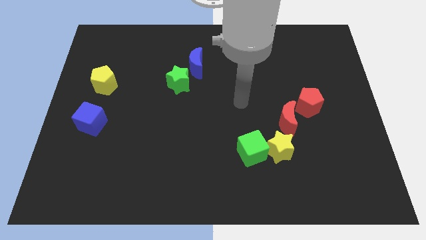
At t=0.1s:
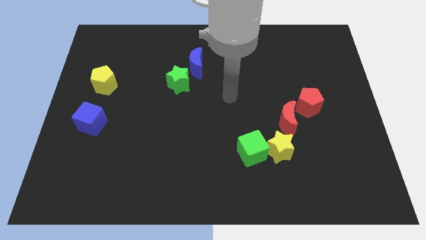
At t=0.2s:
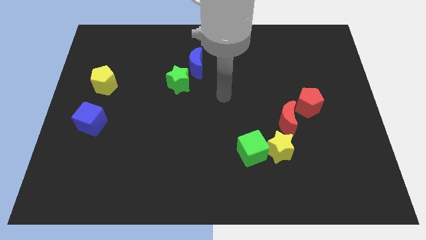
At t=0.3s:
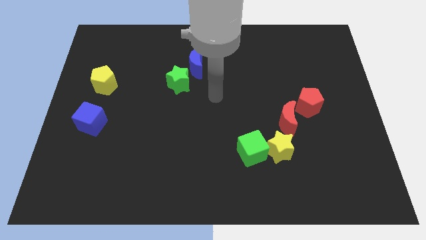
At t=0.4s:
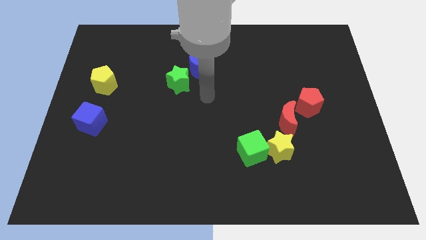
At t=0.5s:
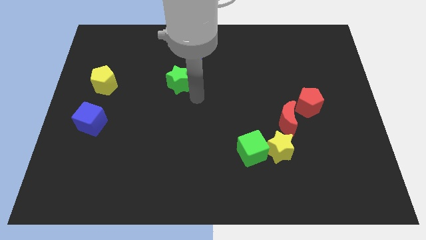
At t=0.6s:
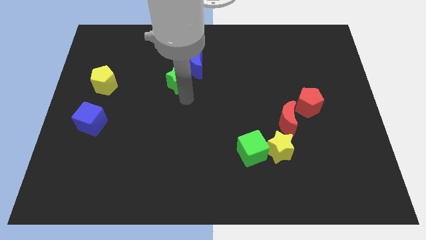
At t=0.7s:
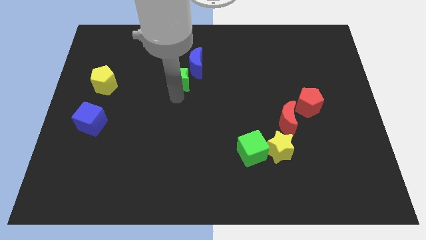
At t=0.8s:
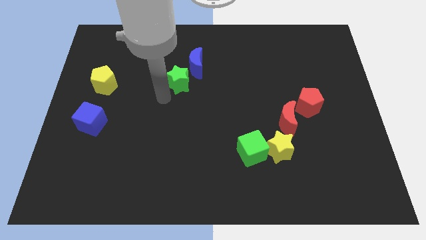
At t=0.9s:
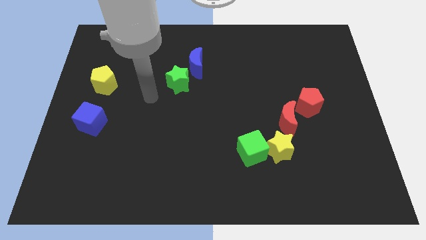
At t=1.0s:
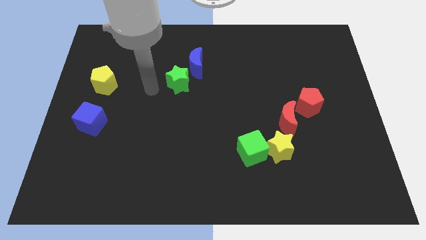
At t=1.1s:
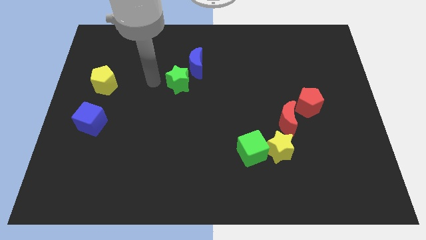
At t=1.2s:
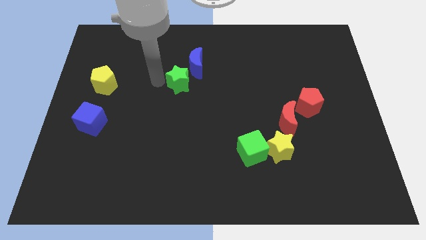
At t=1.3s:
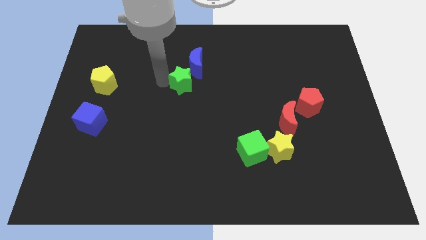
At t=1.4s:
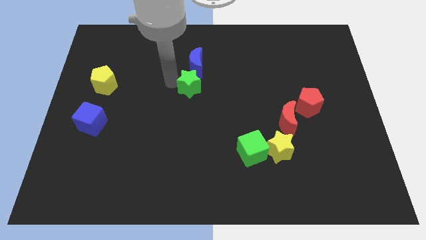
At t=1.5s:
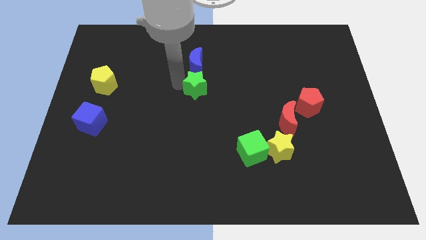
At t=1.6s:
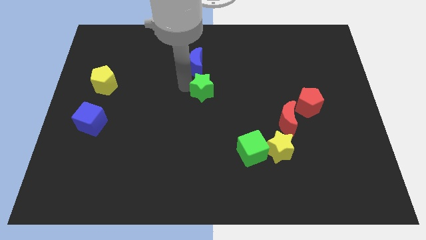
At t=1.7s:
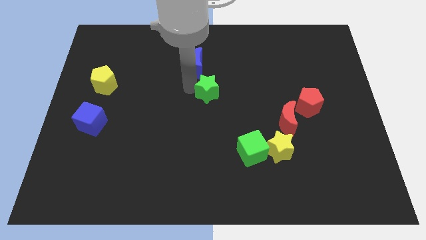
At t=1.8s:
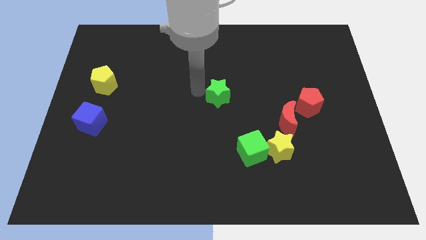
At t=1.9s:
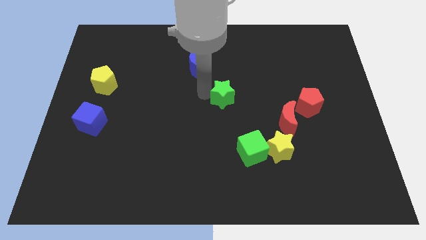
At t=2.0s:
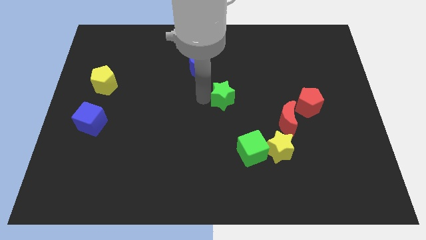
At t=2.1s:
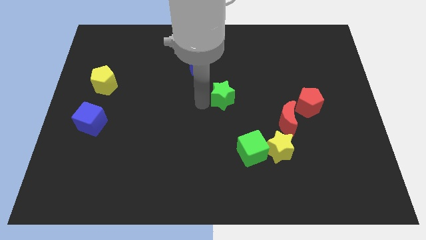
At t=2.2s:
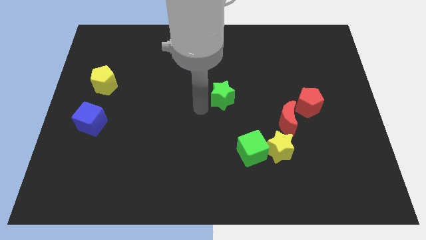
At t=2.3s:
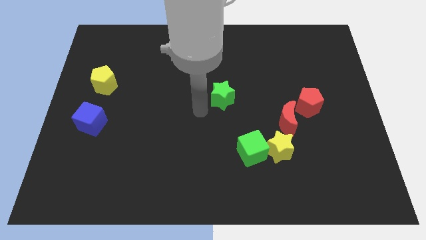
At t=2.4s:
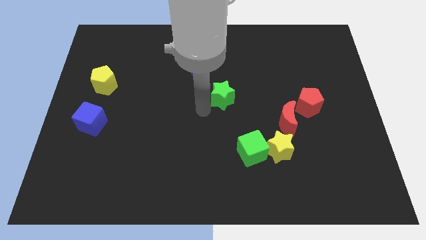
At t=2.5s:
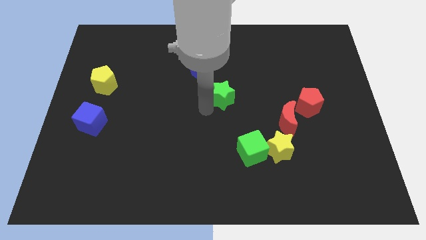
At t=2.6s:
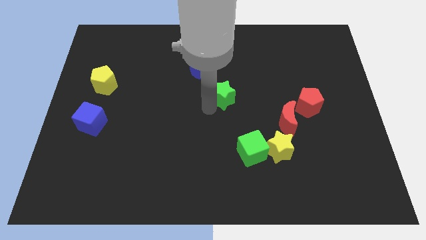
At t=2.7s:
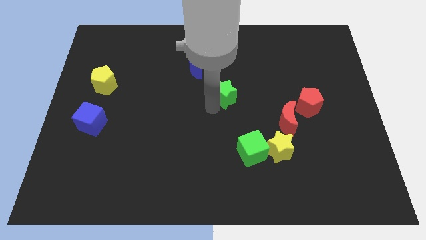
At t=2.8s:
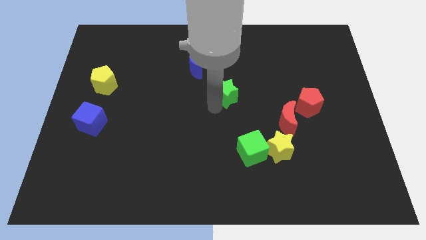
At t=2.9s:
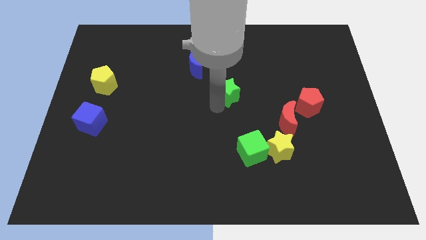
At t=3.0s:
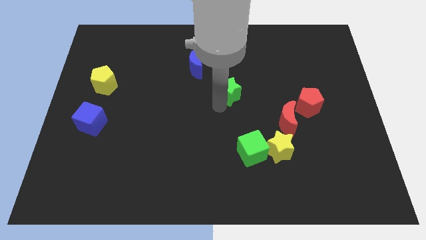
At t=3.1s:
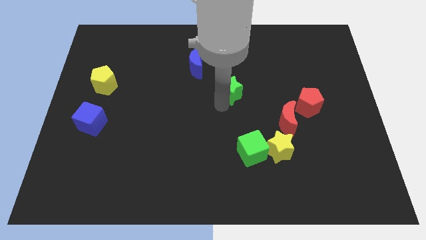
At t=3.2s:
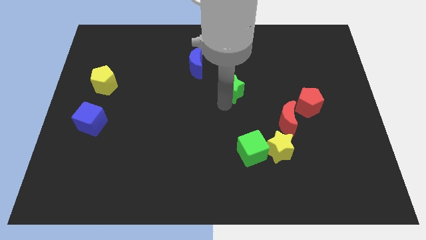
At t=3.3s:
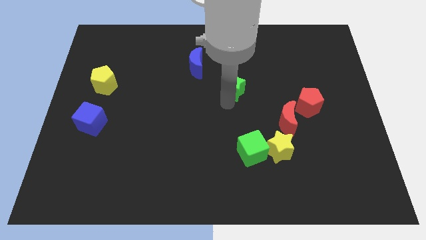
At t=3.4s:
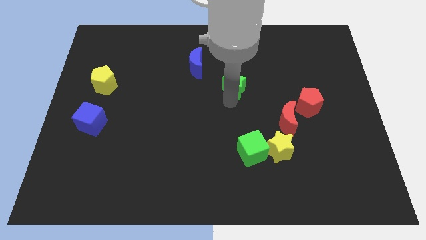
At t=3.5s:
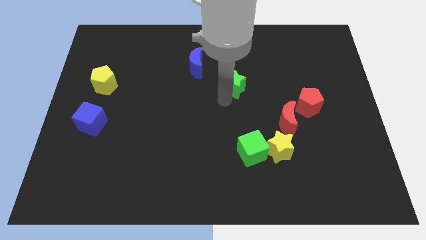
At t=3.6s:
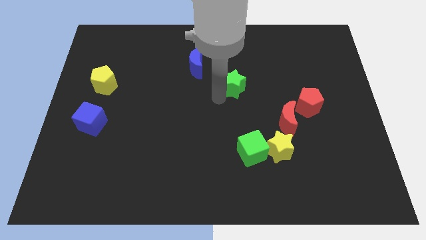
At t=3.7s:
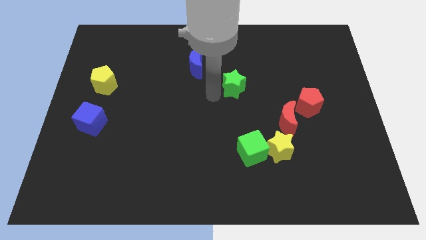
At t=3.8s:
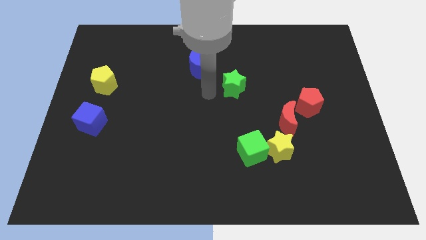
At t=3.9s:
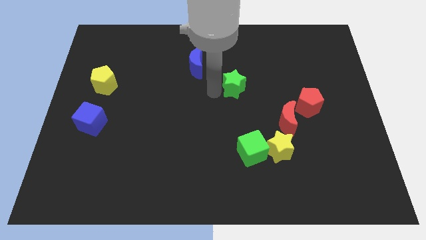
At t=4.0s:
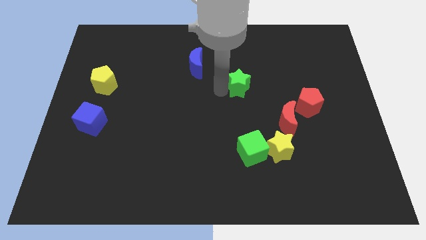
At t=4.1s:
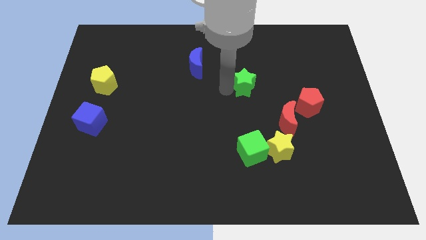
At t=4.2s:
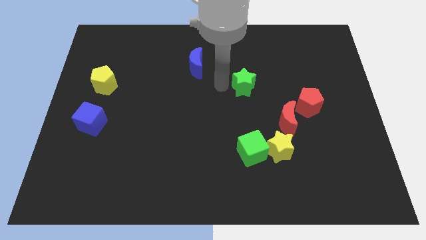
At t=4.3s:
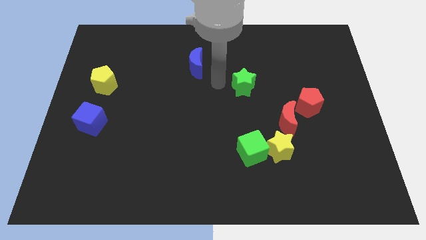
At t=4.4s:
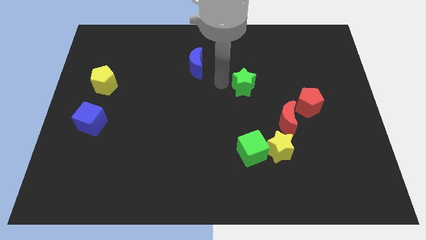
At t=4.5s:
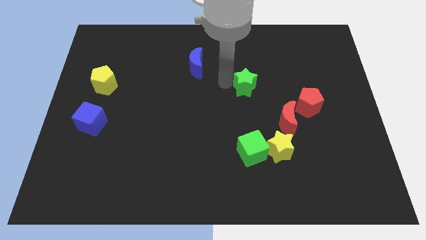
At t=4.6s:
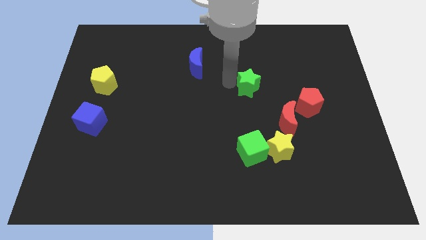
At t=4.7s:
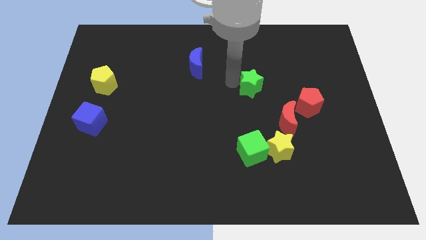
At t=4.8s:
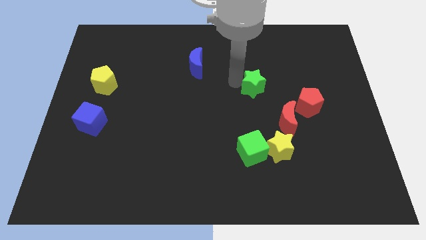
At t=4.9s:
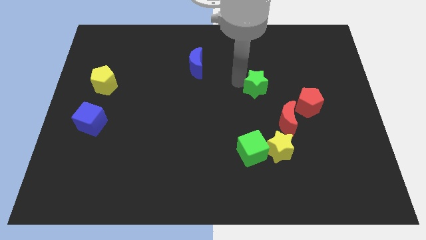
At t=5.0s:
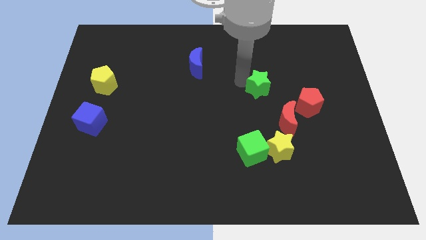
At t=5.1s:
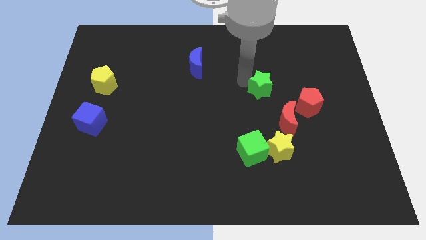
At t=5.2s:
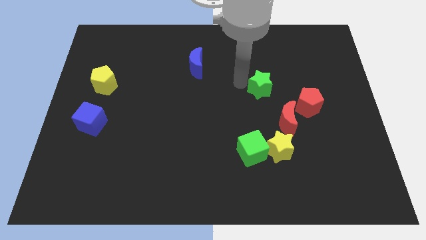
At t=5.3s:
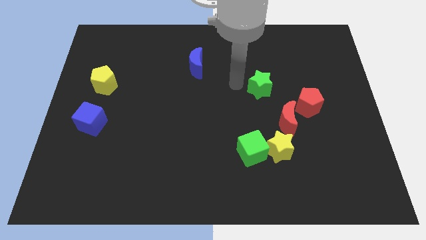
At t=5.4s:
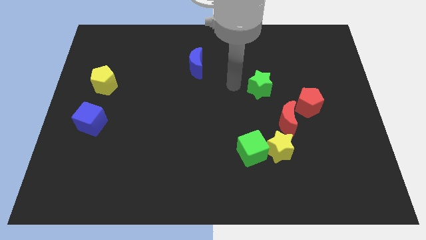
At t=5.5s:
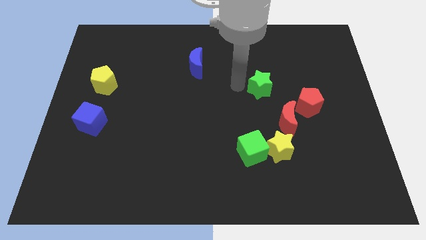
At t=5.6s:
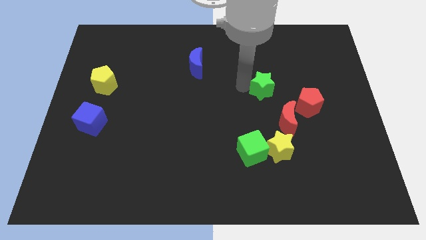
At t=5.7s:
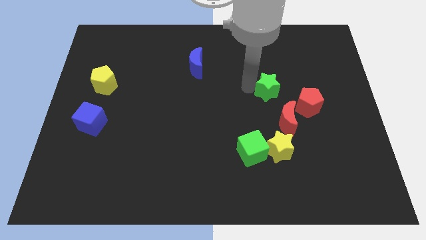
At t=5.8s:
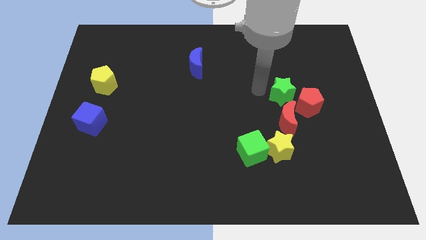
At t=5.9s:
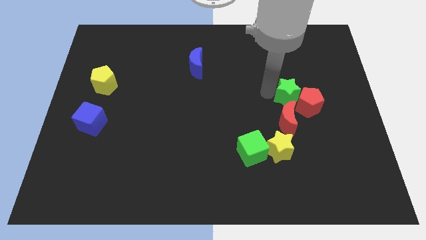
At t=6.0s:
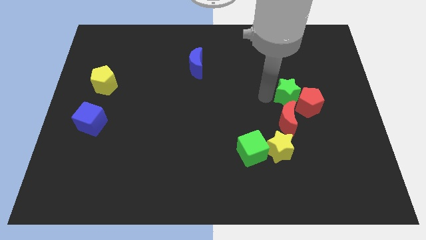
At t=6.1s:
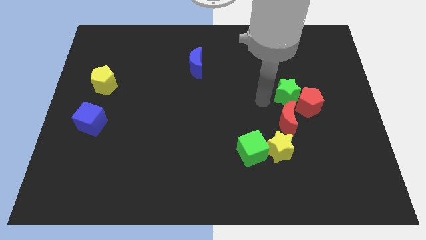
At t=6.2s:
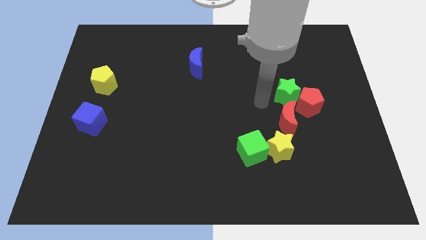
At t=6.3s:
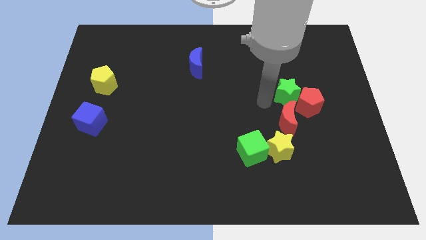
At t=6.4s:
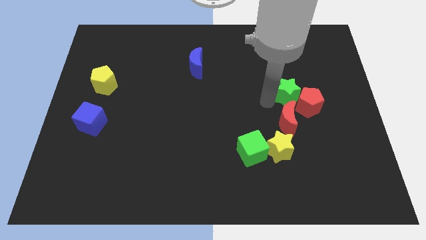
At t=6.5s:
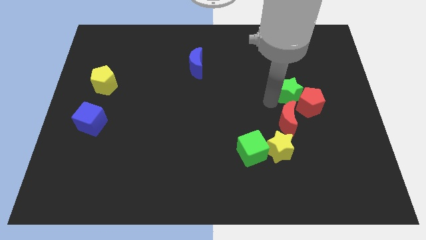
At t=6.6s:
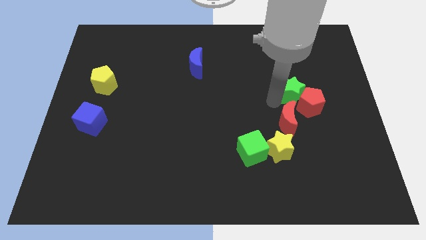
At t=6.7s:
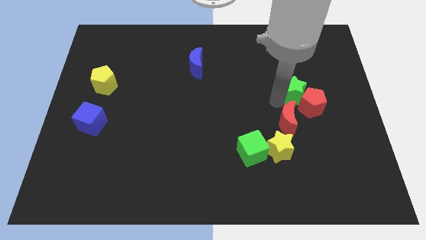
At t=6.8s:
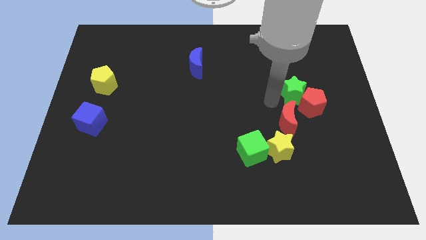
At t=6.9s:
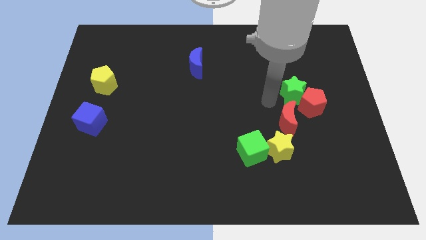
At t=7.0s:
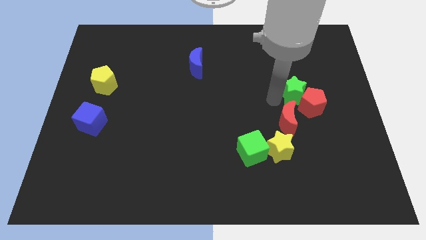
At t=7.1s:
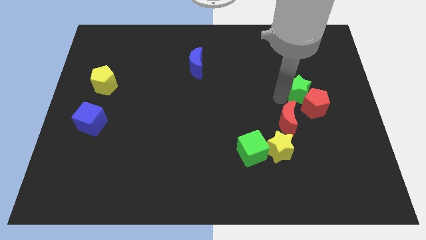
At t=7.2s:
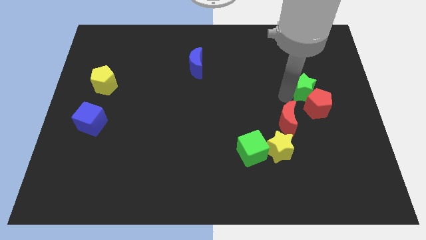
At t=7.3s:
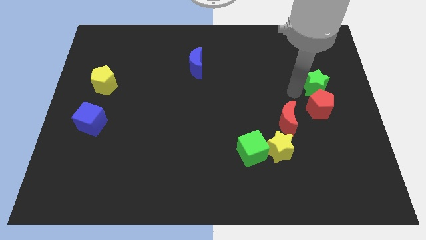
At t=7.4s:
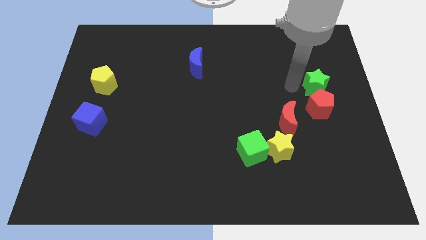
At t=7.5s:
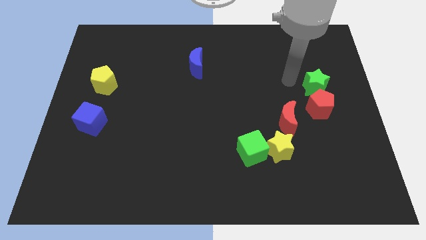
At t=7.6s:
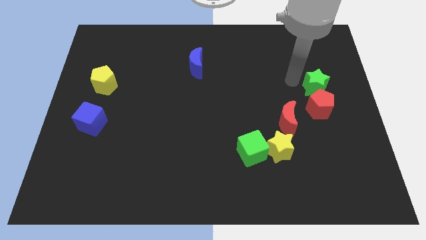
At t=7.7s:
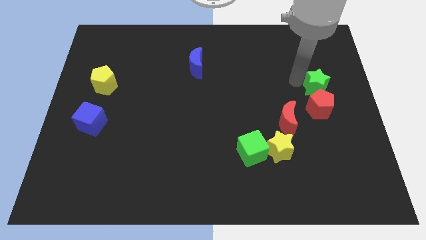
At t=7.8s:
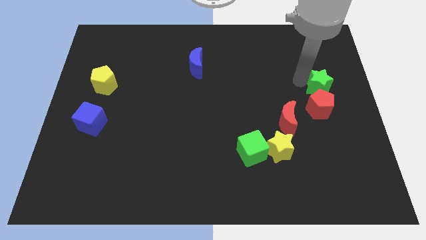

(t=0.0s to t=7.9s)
slide the green star to the right side
